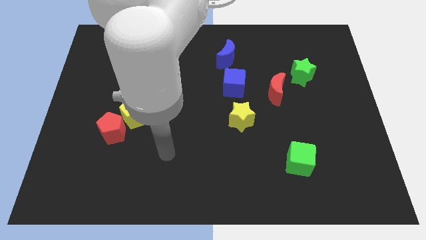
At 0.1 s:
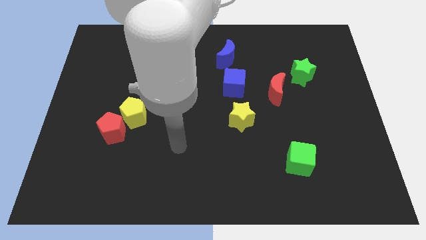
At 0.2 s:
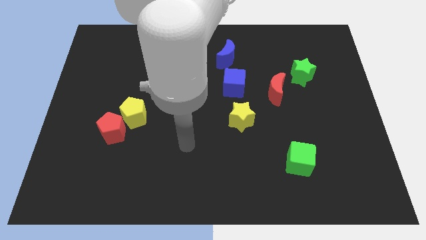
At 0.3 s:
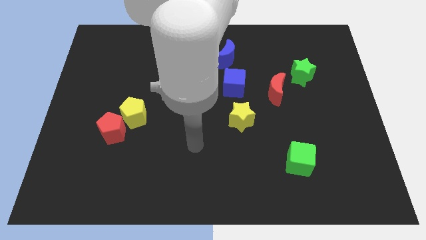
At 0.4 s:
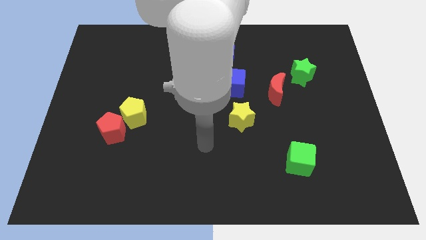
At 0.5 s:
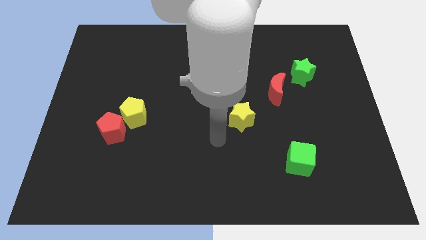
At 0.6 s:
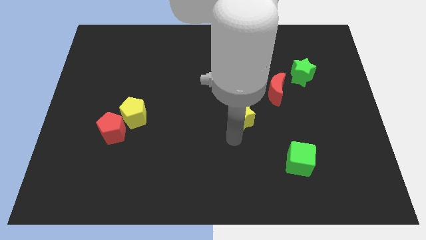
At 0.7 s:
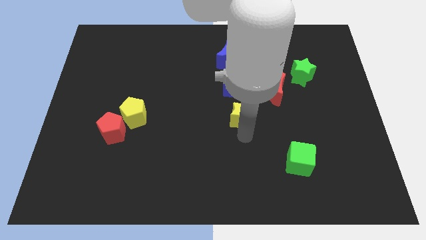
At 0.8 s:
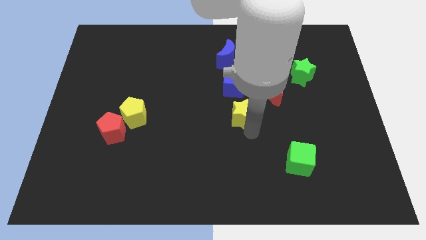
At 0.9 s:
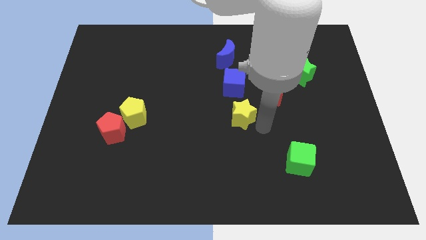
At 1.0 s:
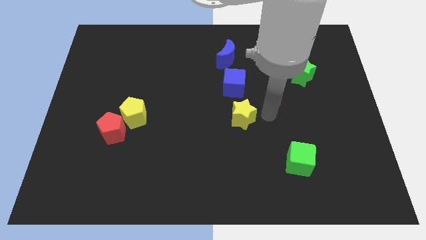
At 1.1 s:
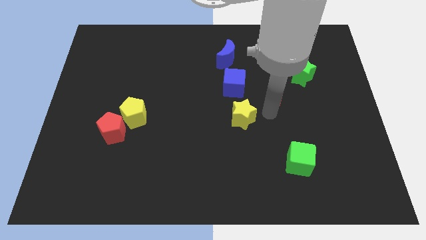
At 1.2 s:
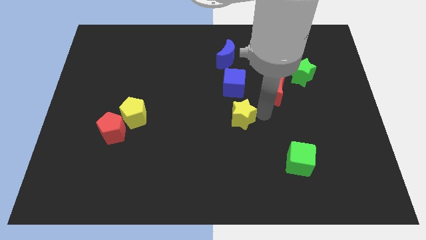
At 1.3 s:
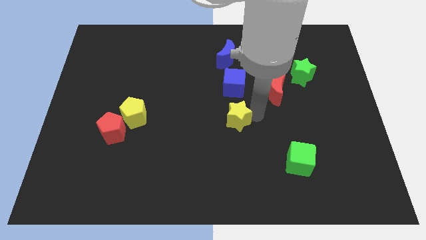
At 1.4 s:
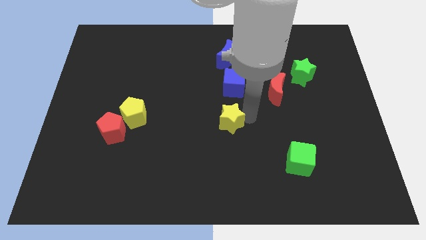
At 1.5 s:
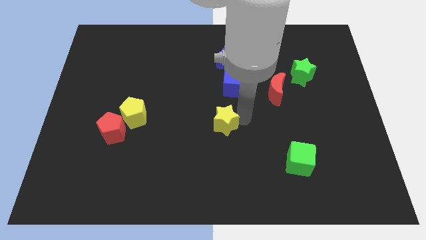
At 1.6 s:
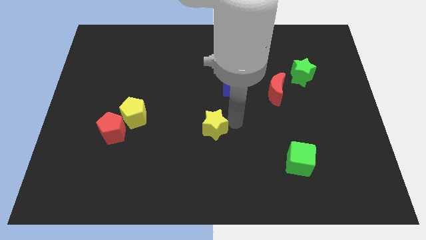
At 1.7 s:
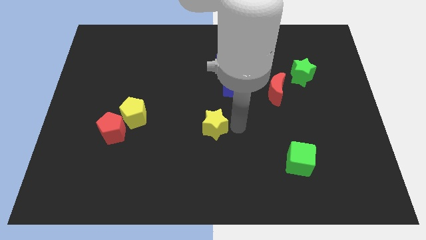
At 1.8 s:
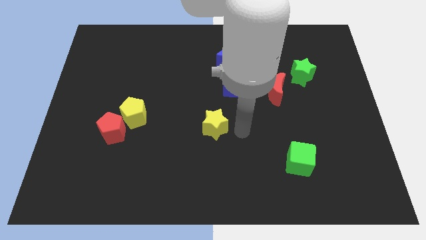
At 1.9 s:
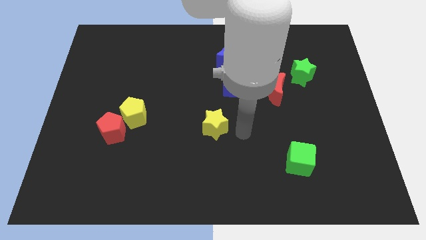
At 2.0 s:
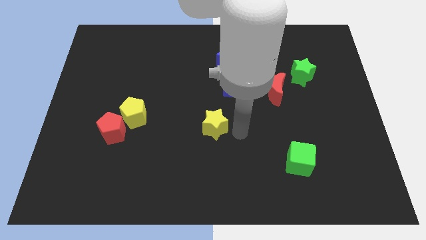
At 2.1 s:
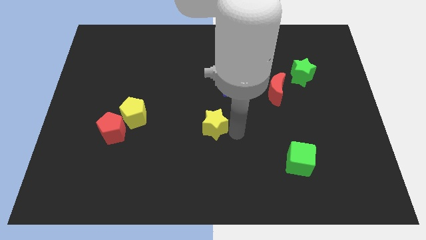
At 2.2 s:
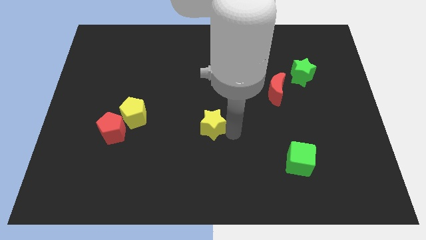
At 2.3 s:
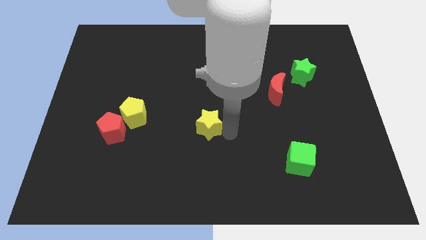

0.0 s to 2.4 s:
slide the yellow star slightly left

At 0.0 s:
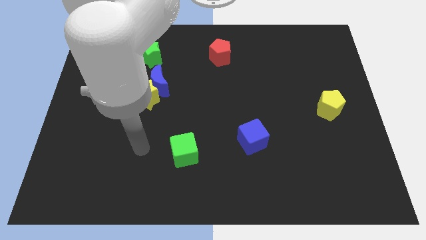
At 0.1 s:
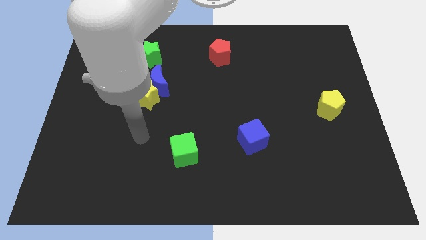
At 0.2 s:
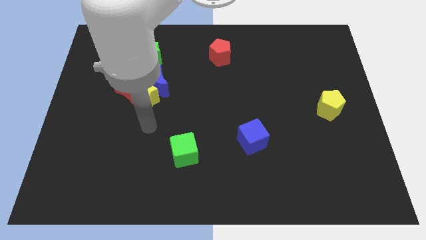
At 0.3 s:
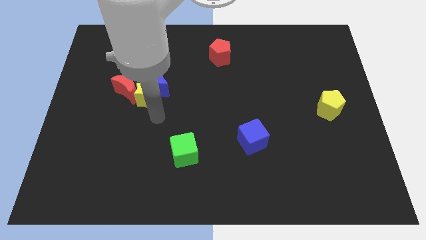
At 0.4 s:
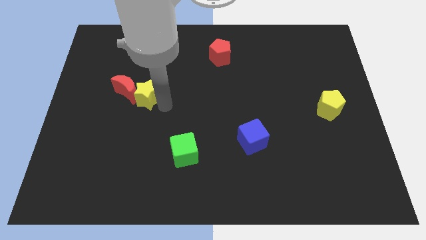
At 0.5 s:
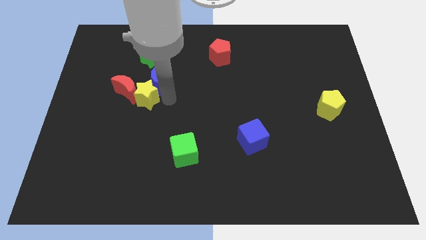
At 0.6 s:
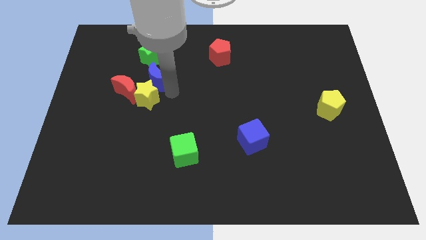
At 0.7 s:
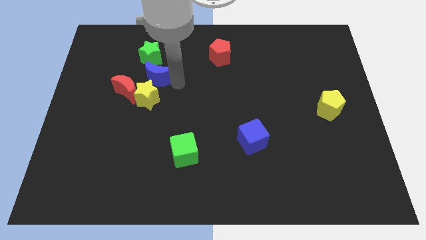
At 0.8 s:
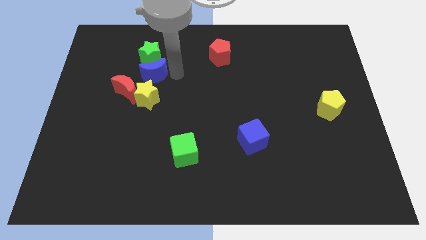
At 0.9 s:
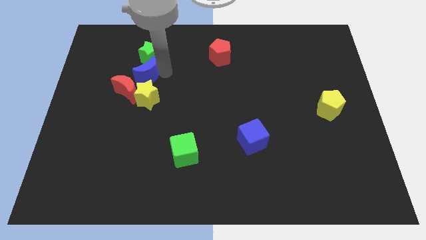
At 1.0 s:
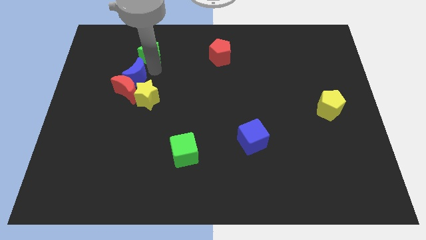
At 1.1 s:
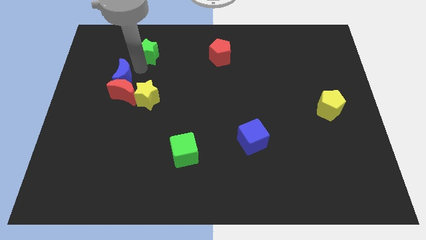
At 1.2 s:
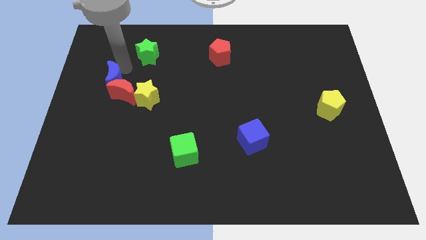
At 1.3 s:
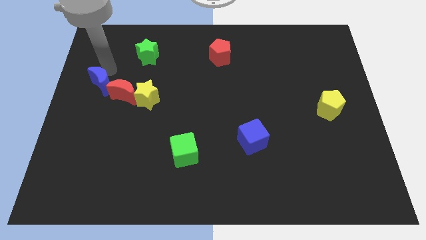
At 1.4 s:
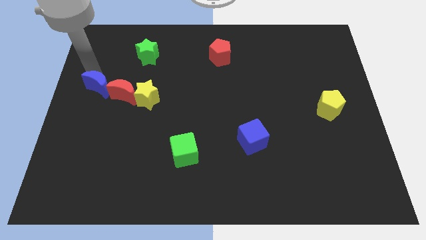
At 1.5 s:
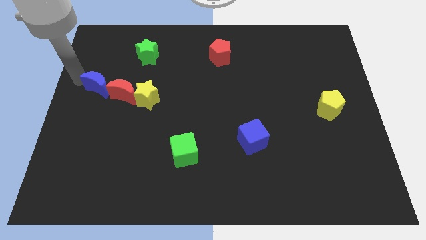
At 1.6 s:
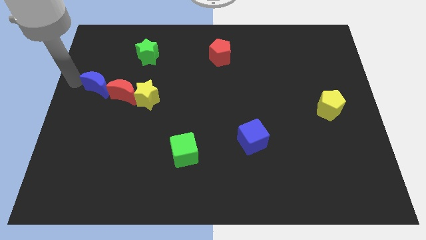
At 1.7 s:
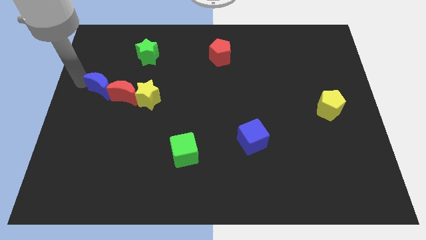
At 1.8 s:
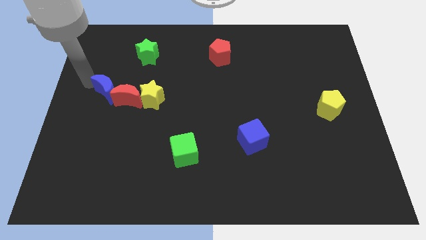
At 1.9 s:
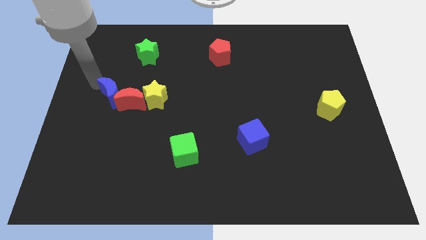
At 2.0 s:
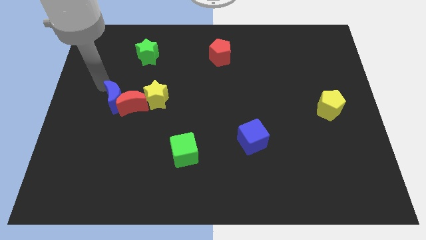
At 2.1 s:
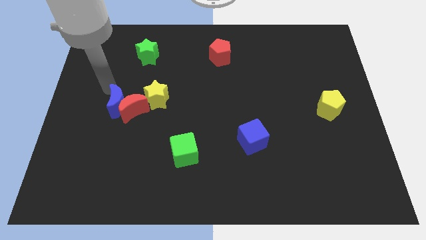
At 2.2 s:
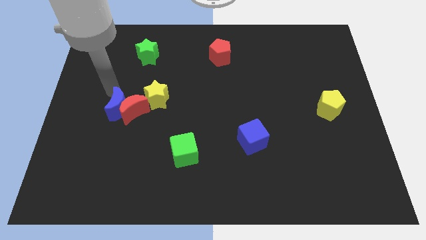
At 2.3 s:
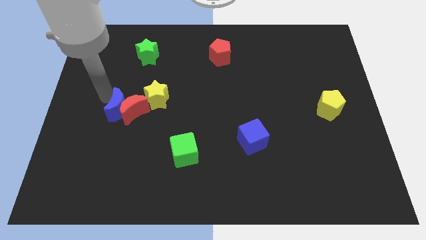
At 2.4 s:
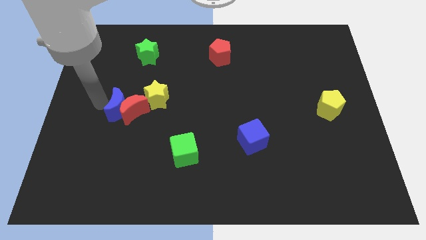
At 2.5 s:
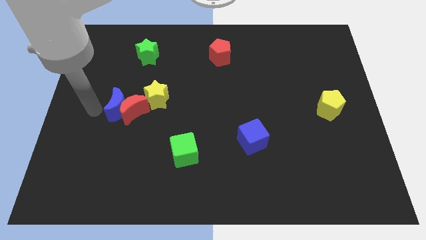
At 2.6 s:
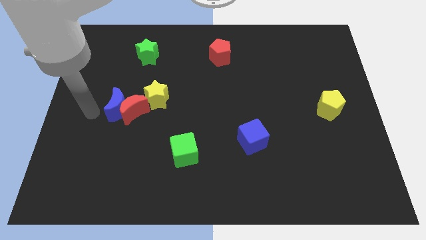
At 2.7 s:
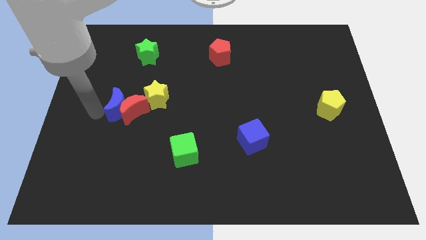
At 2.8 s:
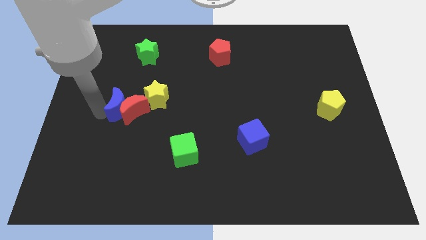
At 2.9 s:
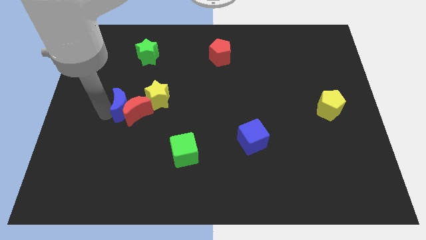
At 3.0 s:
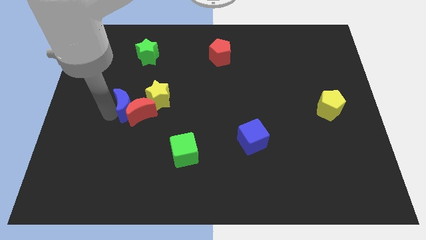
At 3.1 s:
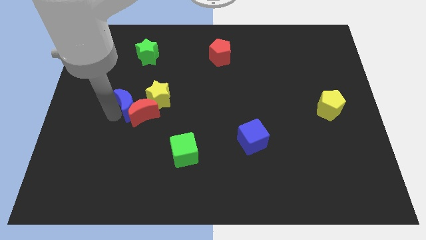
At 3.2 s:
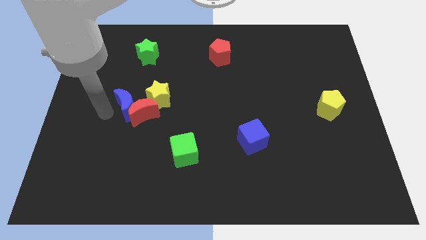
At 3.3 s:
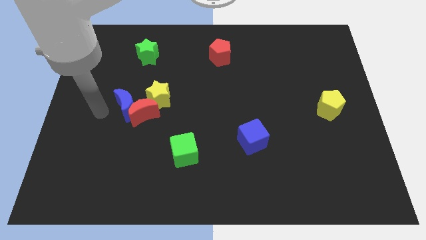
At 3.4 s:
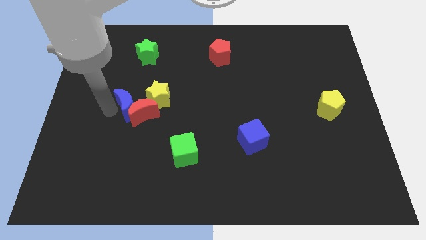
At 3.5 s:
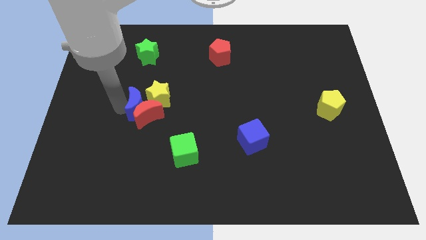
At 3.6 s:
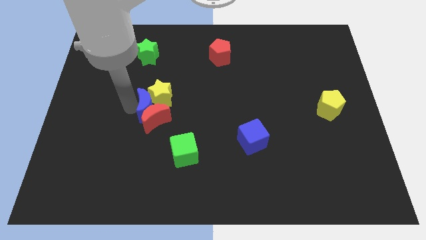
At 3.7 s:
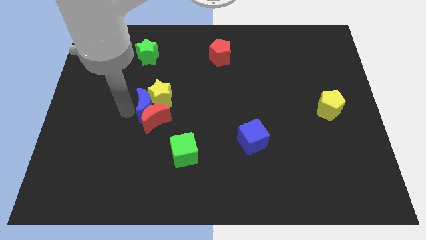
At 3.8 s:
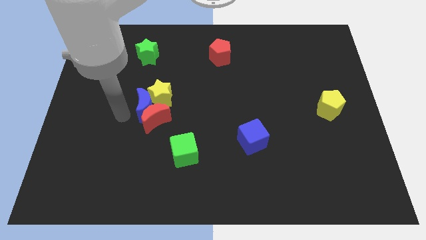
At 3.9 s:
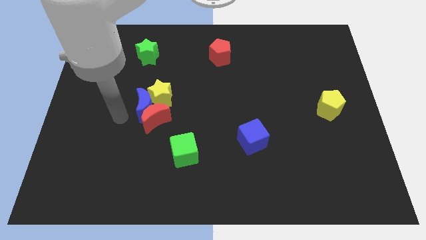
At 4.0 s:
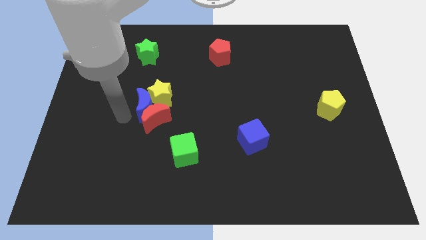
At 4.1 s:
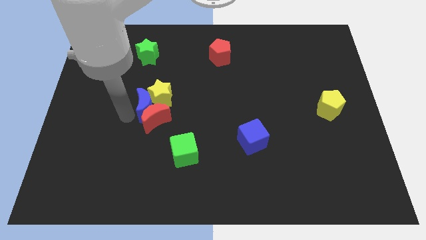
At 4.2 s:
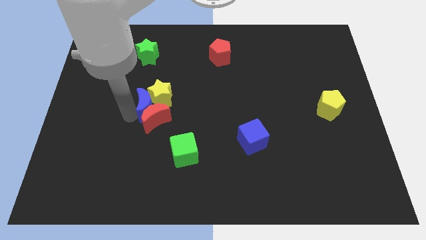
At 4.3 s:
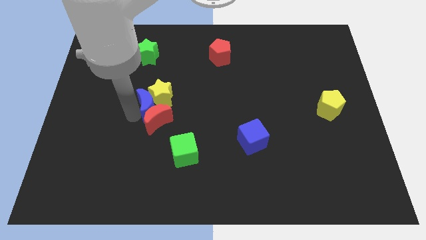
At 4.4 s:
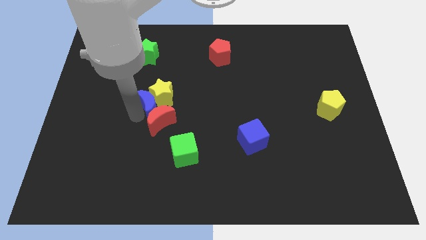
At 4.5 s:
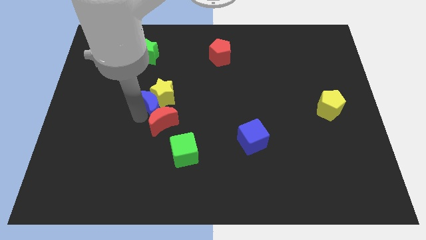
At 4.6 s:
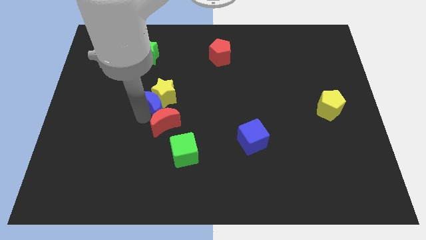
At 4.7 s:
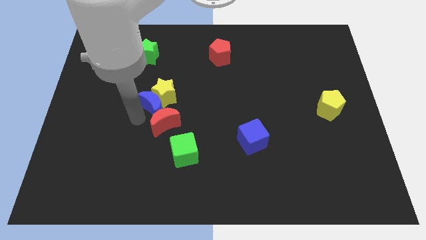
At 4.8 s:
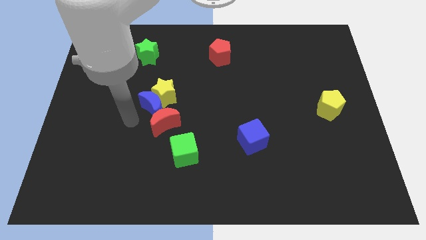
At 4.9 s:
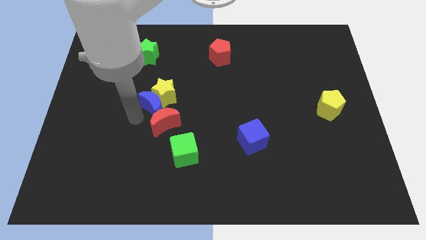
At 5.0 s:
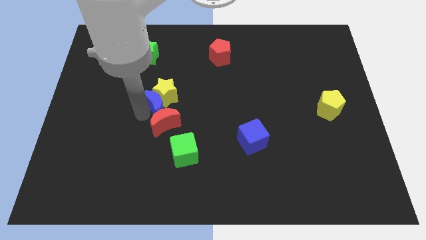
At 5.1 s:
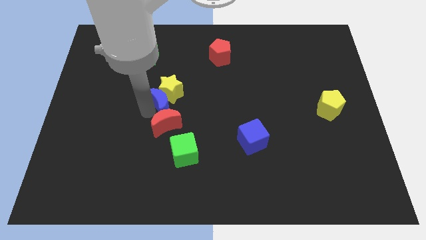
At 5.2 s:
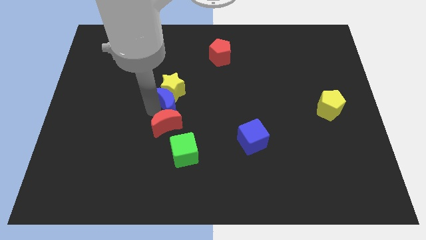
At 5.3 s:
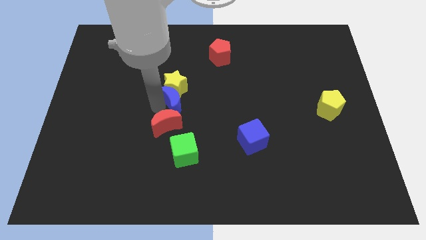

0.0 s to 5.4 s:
move the blue moon slightly downwards and to the right
